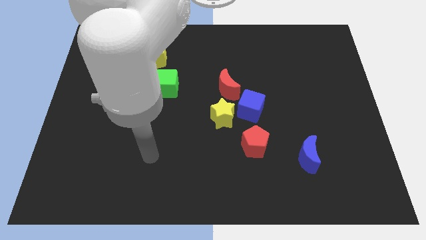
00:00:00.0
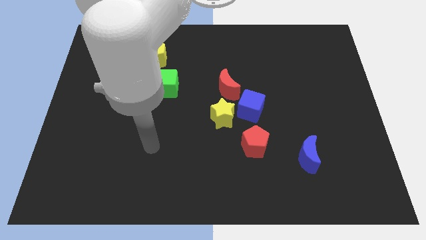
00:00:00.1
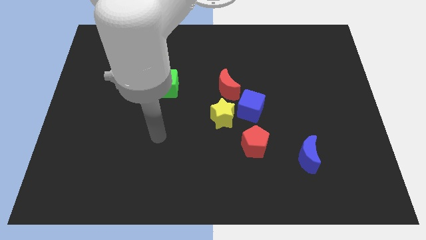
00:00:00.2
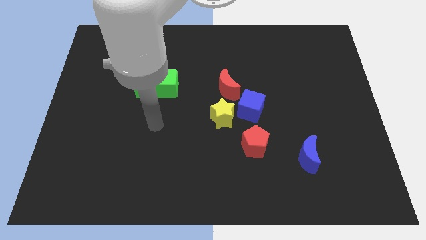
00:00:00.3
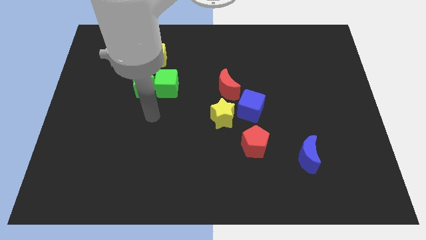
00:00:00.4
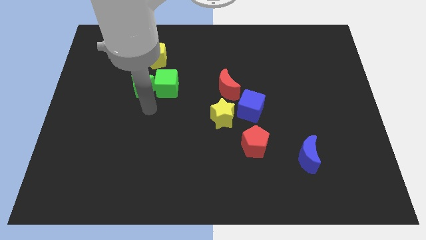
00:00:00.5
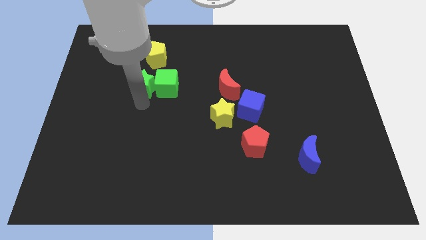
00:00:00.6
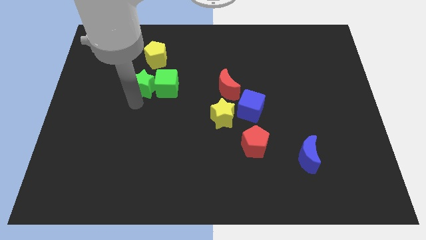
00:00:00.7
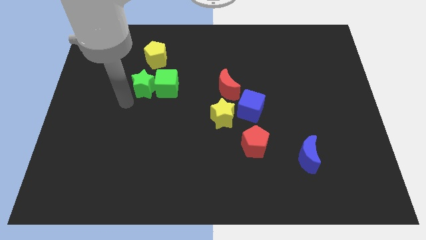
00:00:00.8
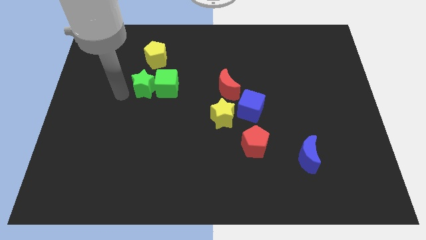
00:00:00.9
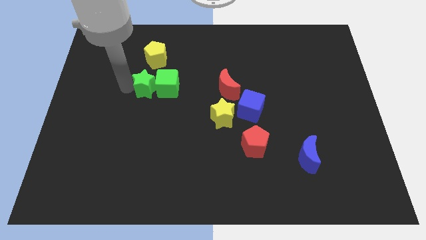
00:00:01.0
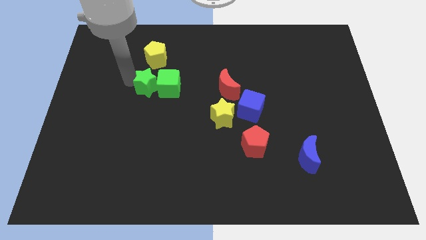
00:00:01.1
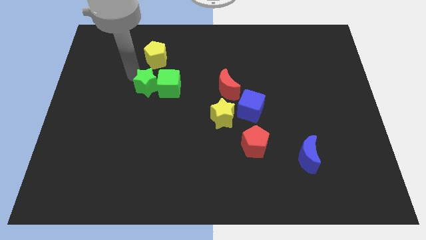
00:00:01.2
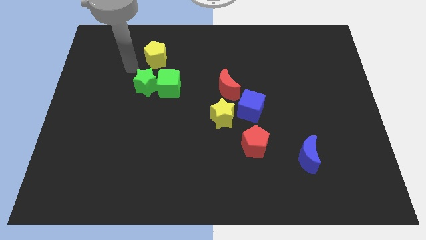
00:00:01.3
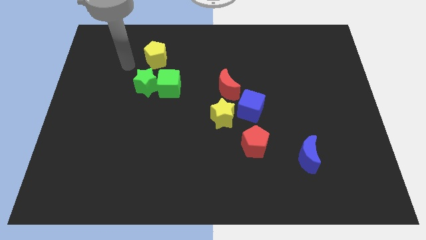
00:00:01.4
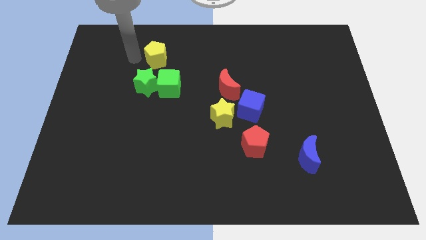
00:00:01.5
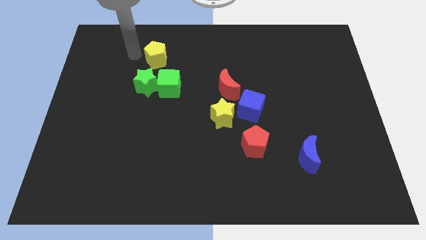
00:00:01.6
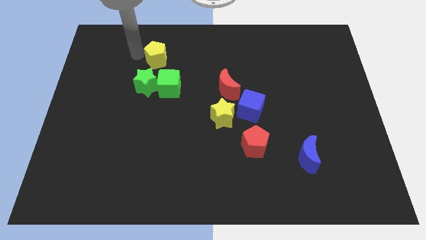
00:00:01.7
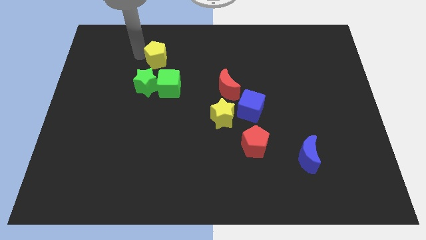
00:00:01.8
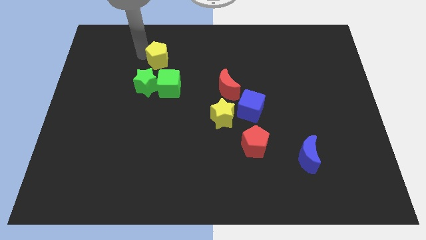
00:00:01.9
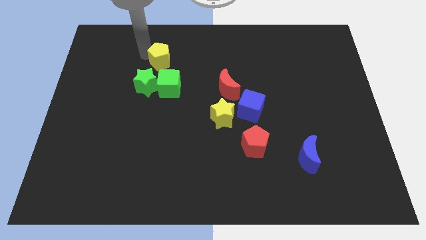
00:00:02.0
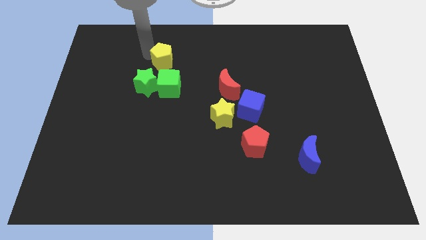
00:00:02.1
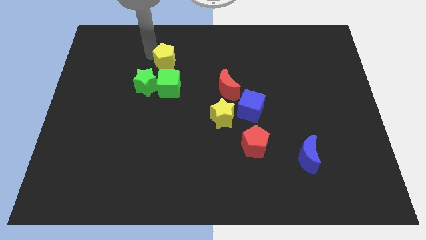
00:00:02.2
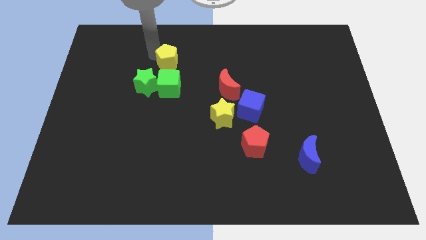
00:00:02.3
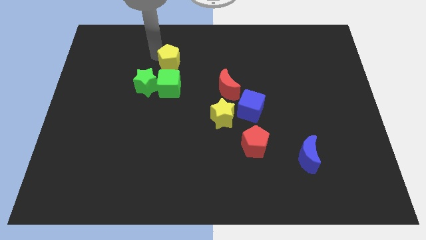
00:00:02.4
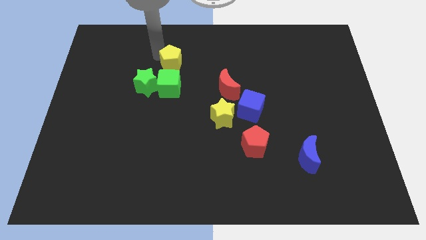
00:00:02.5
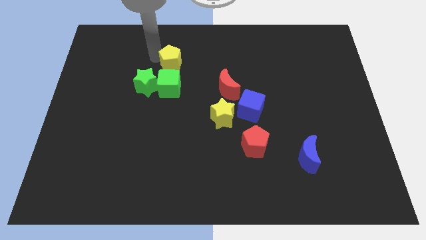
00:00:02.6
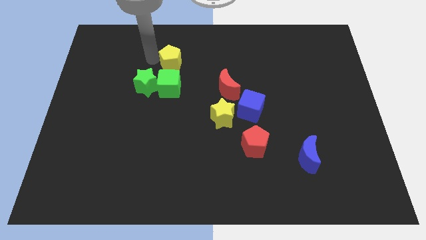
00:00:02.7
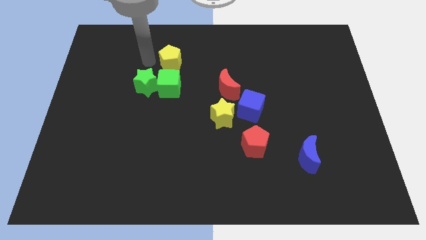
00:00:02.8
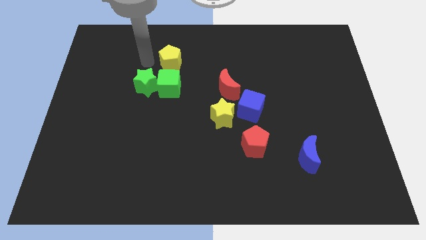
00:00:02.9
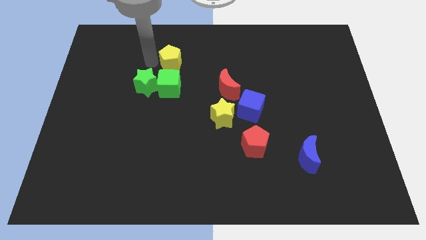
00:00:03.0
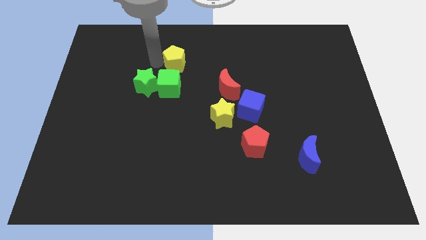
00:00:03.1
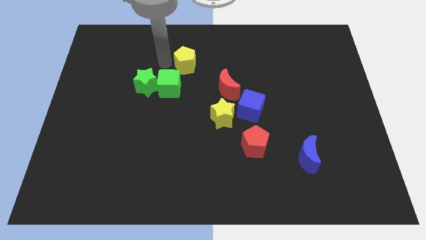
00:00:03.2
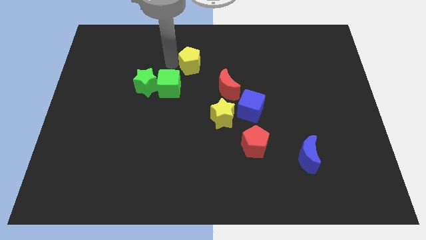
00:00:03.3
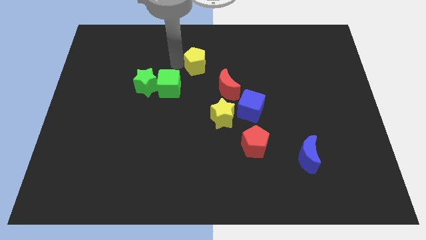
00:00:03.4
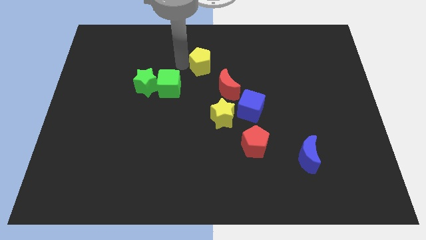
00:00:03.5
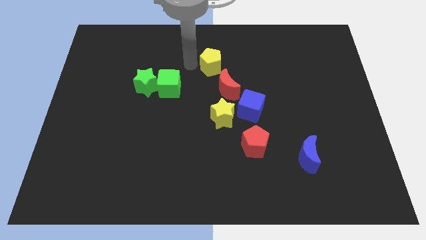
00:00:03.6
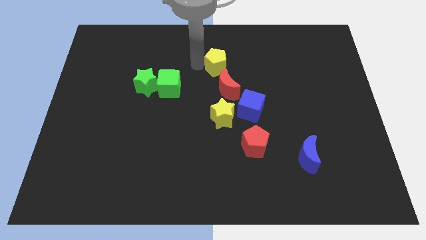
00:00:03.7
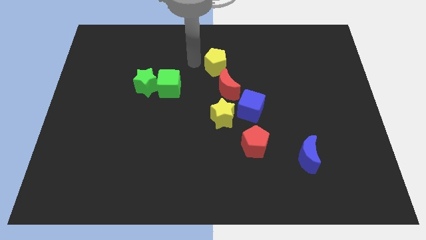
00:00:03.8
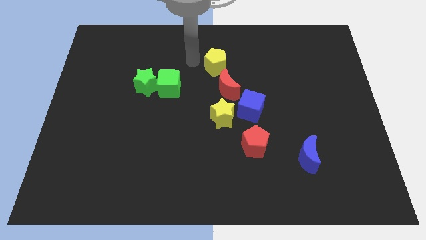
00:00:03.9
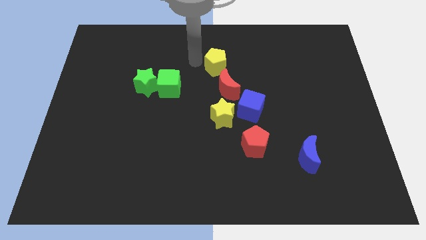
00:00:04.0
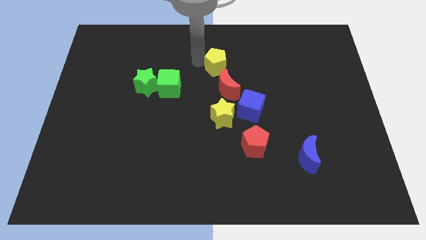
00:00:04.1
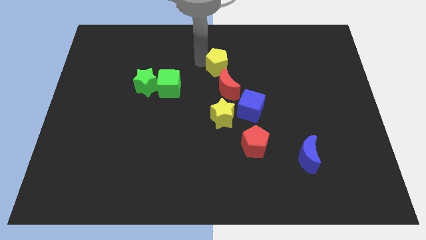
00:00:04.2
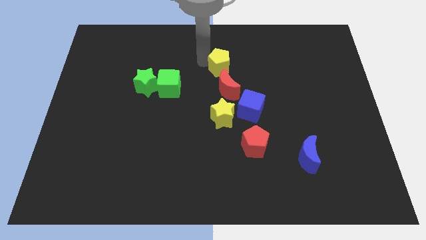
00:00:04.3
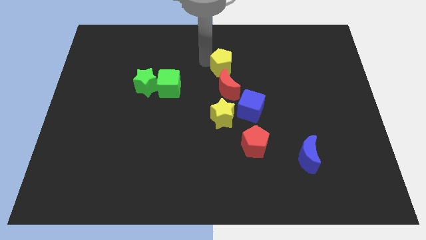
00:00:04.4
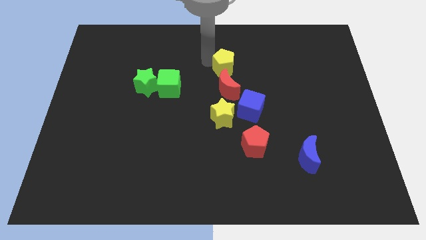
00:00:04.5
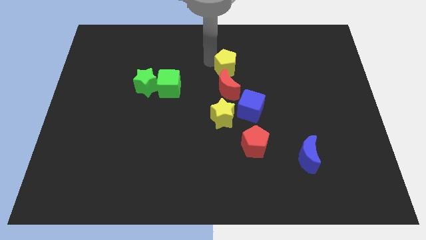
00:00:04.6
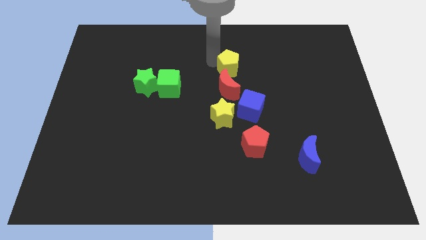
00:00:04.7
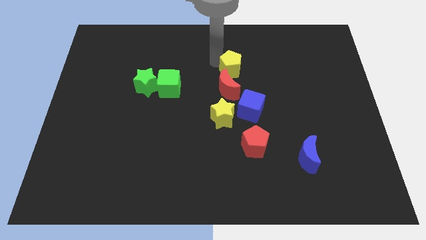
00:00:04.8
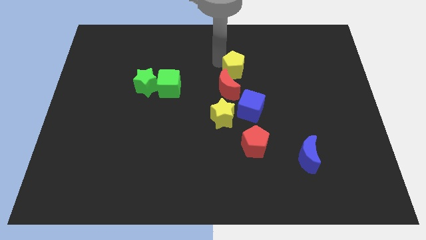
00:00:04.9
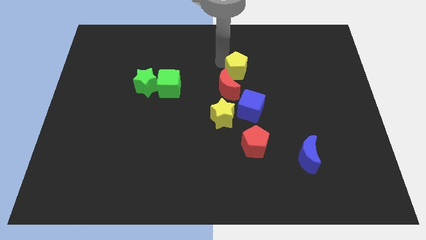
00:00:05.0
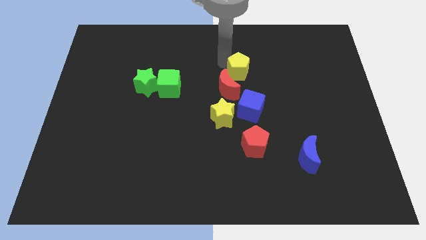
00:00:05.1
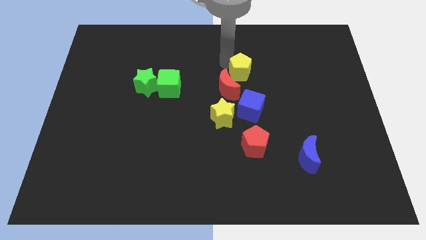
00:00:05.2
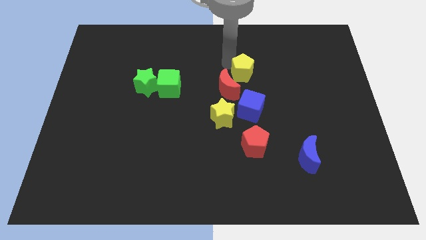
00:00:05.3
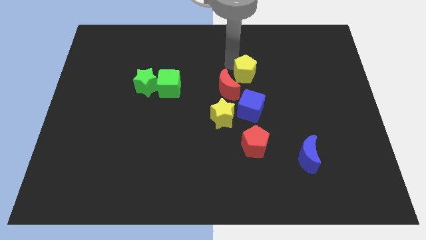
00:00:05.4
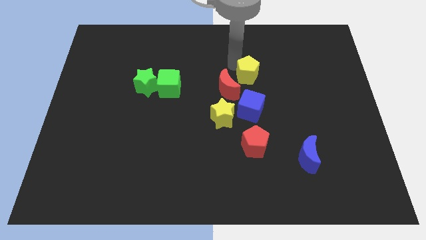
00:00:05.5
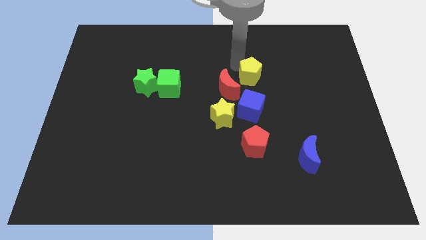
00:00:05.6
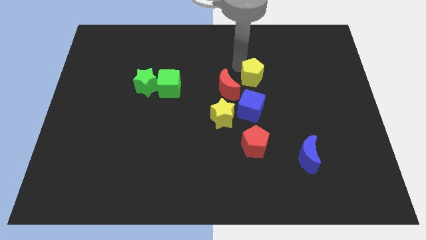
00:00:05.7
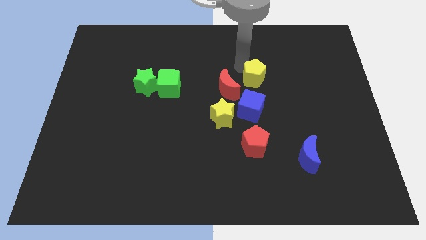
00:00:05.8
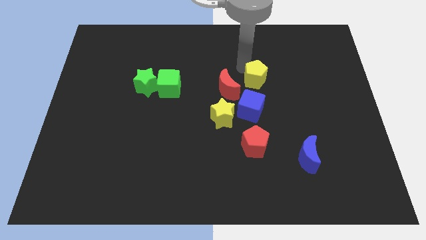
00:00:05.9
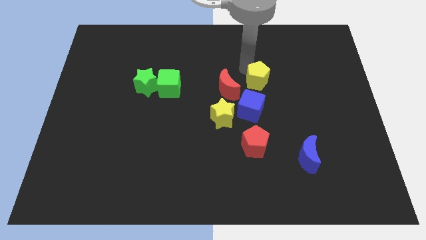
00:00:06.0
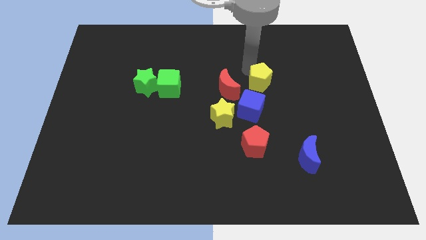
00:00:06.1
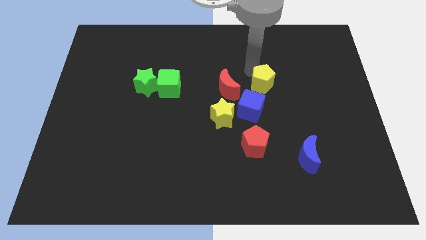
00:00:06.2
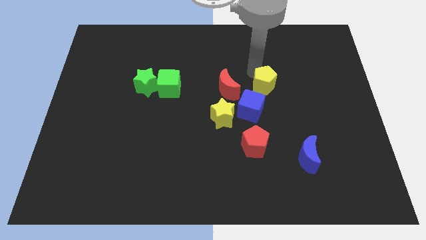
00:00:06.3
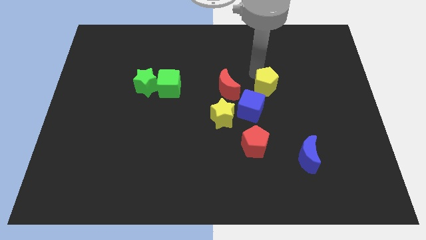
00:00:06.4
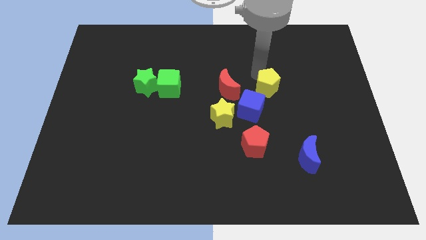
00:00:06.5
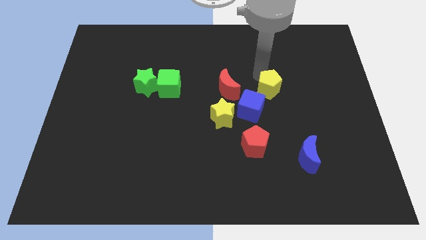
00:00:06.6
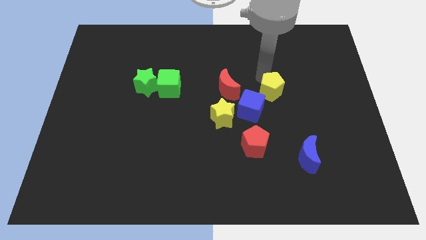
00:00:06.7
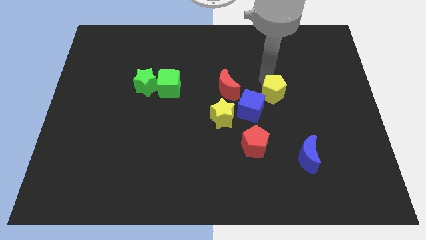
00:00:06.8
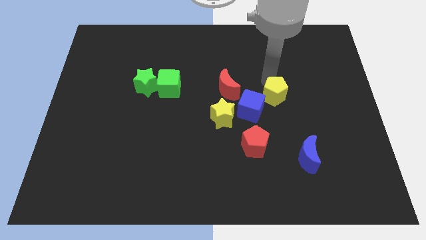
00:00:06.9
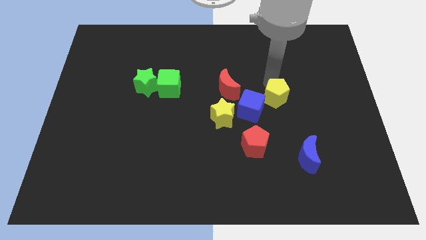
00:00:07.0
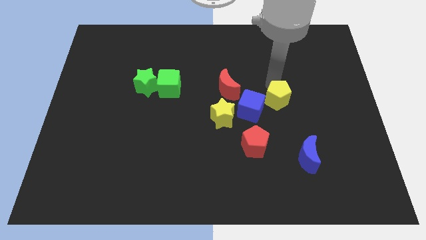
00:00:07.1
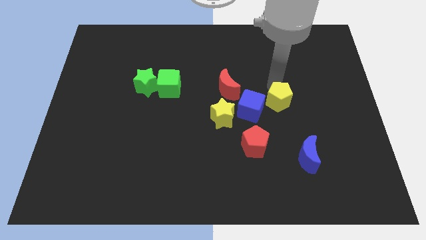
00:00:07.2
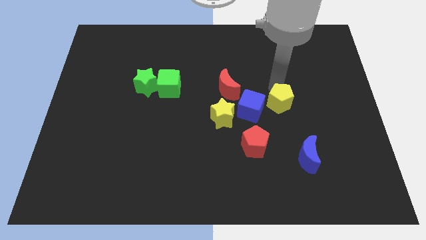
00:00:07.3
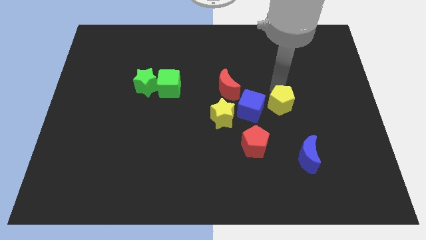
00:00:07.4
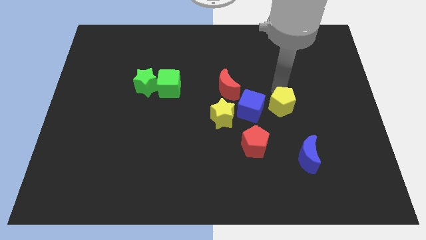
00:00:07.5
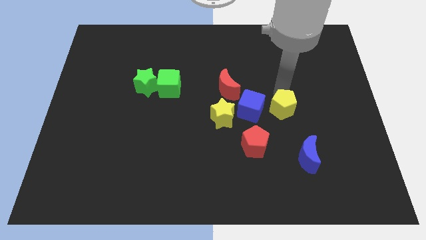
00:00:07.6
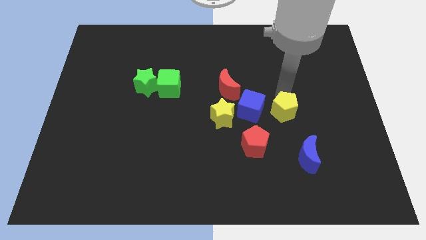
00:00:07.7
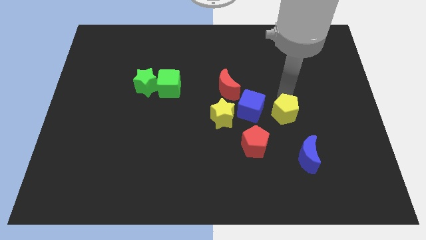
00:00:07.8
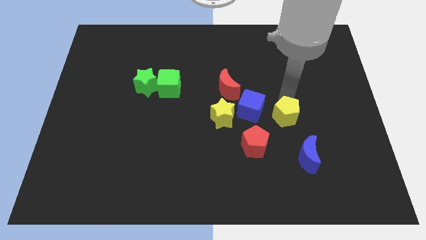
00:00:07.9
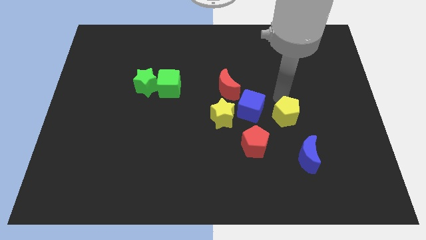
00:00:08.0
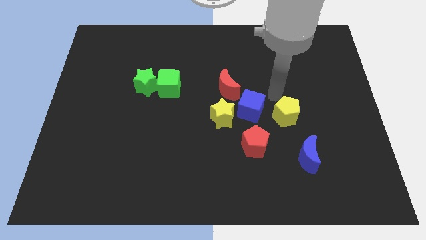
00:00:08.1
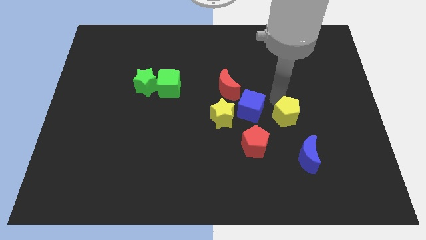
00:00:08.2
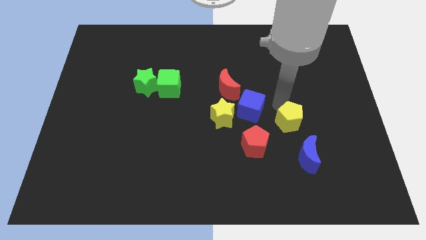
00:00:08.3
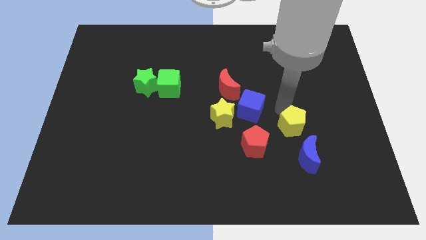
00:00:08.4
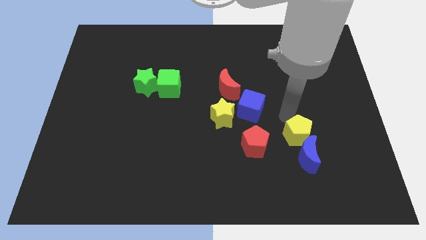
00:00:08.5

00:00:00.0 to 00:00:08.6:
slide the yellow pentagon to the blue moon
